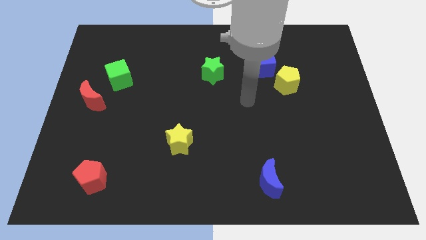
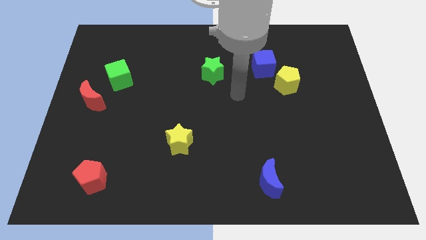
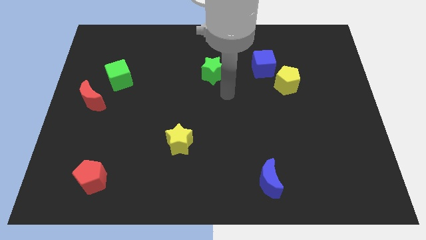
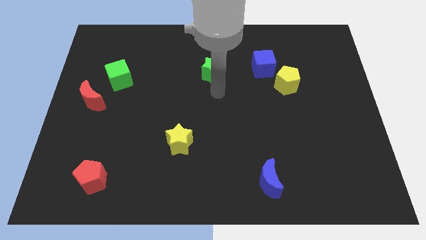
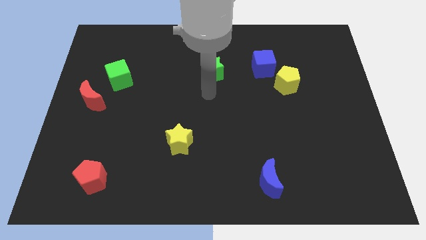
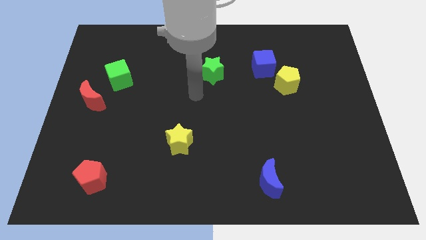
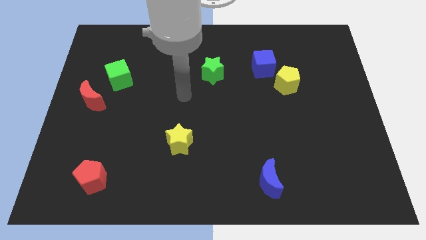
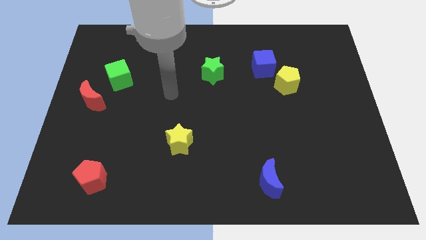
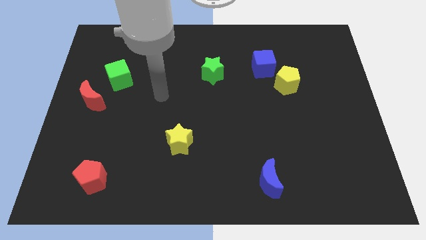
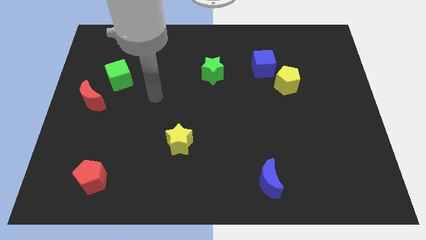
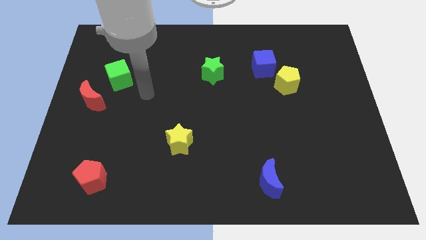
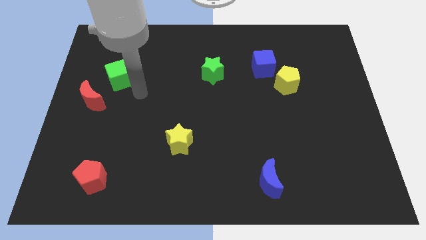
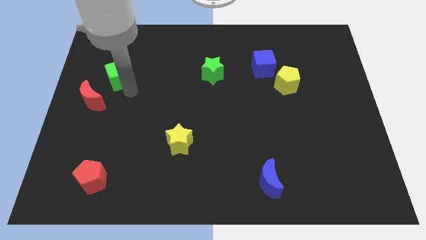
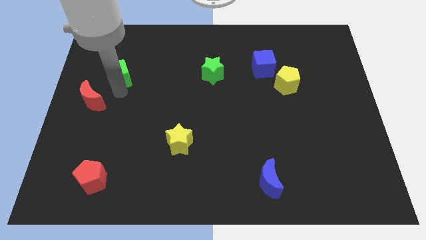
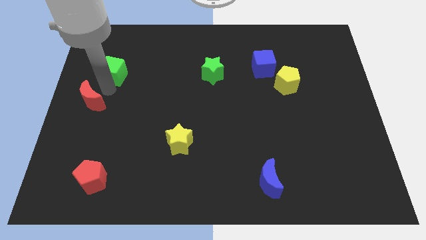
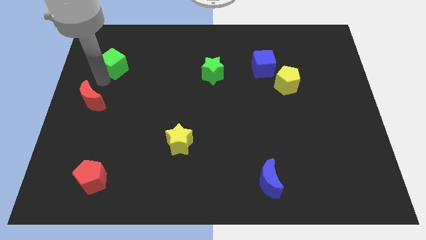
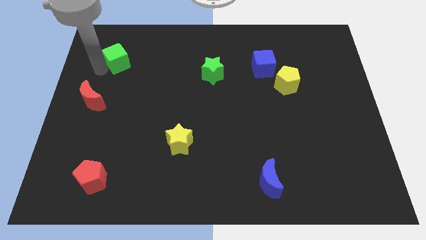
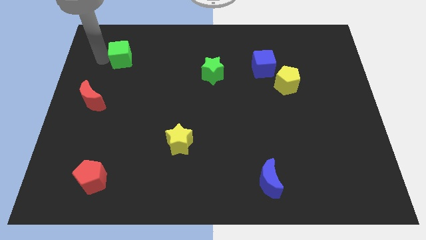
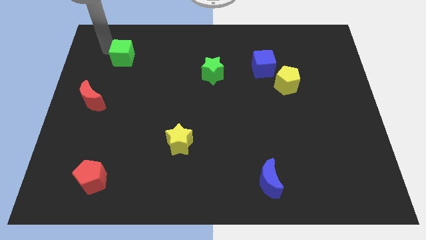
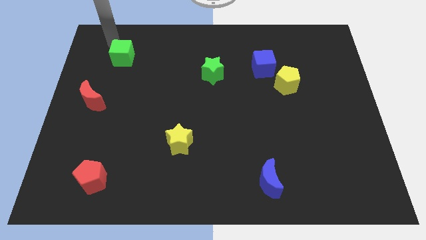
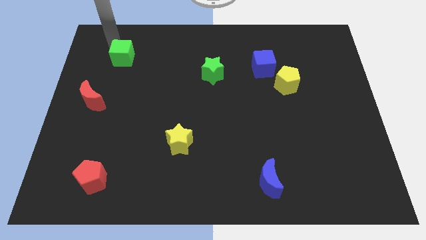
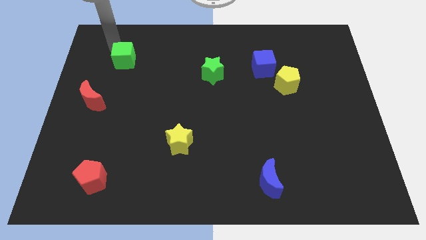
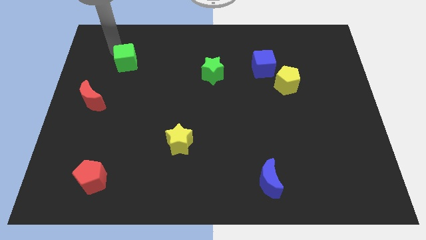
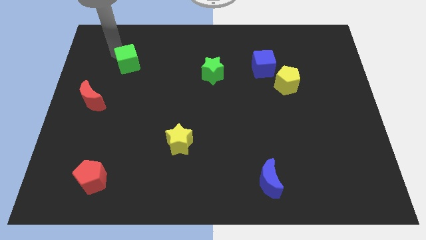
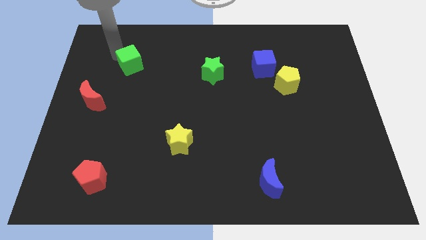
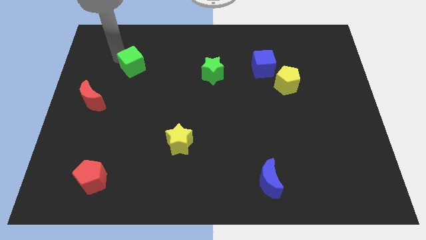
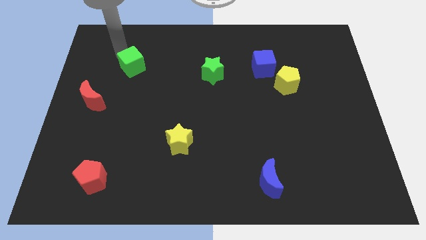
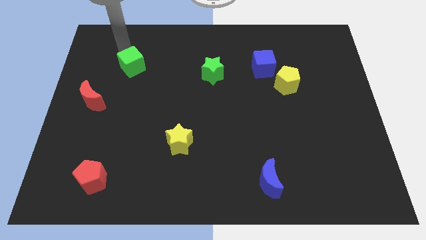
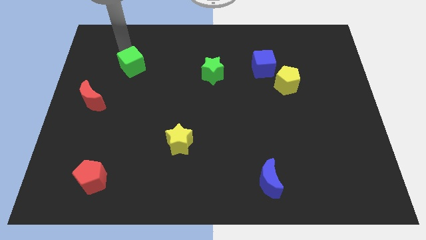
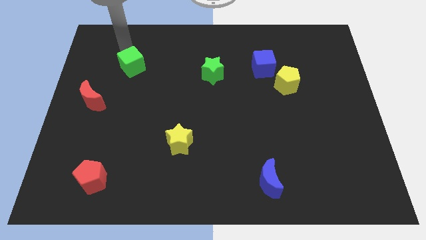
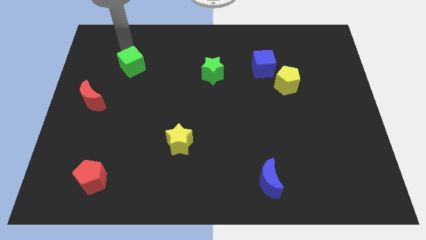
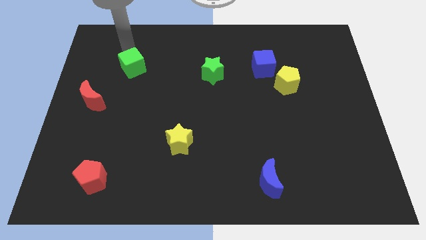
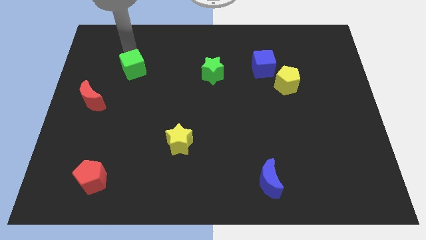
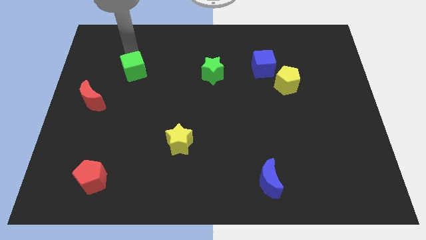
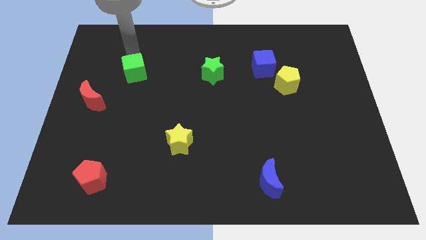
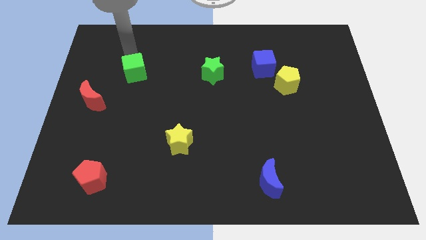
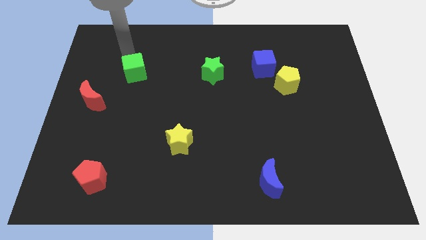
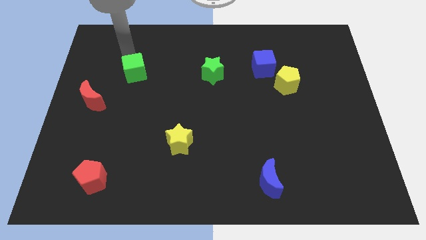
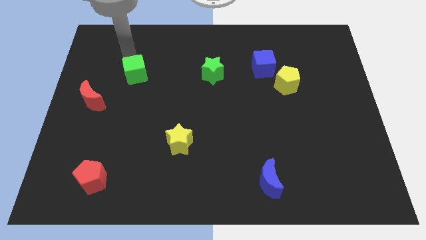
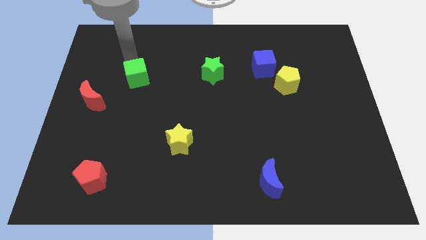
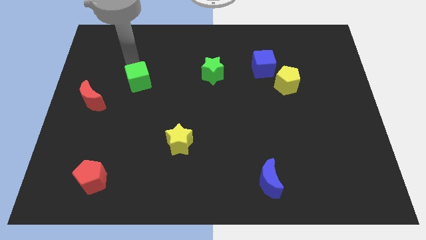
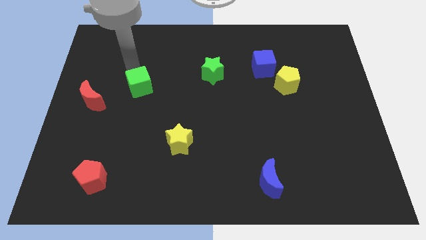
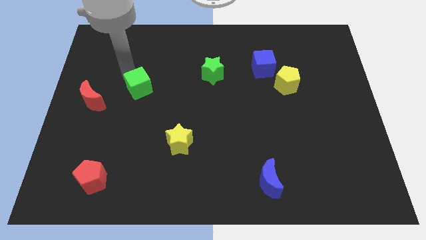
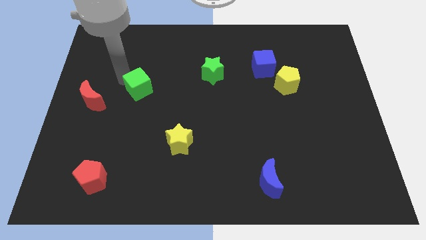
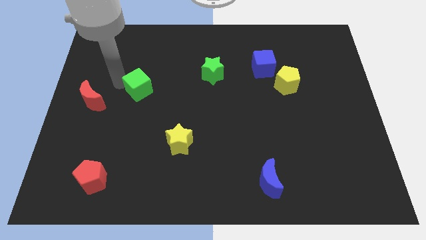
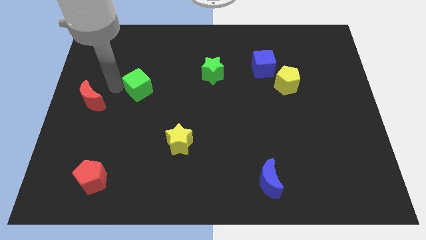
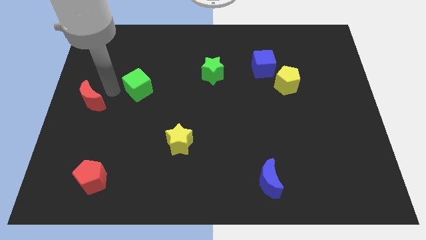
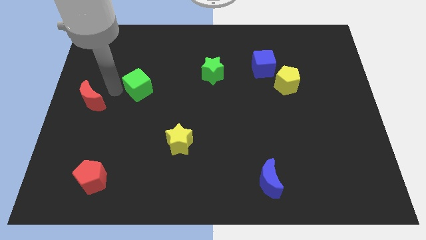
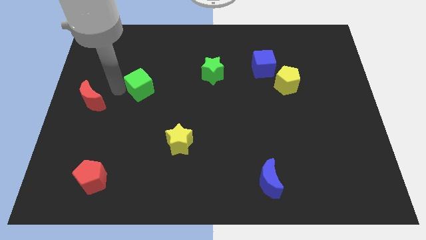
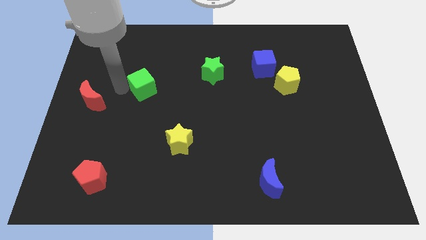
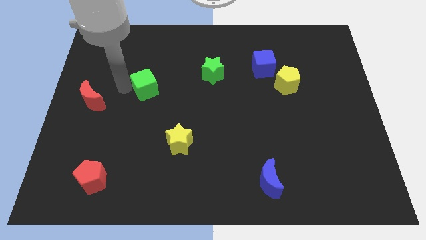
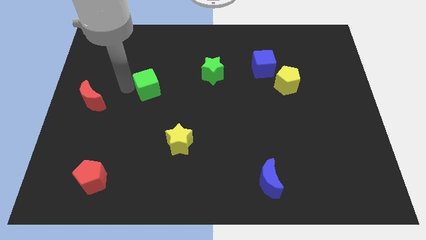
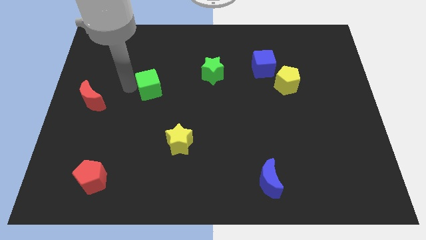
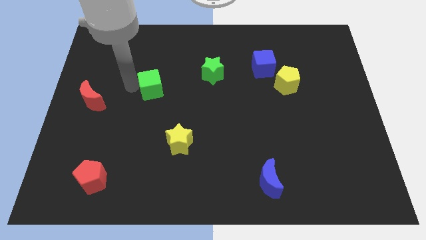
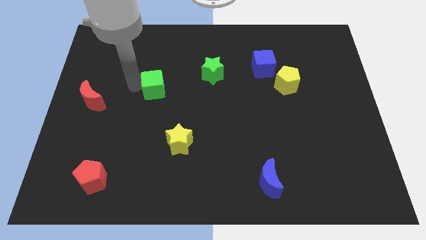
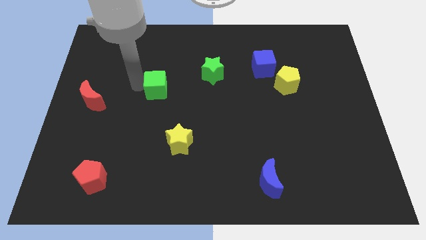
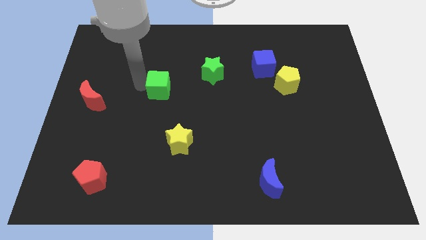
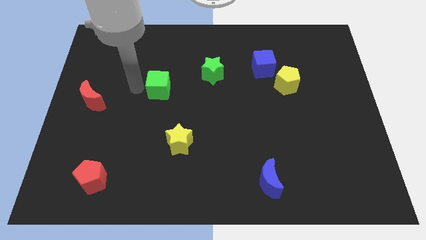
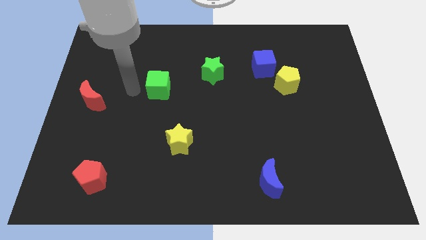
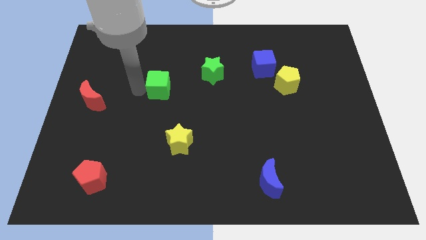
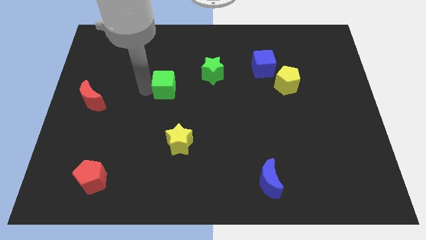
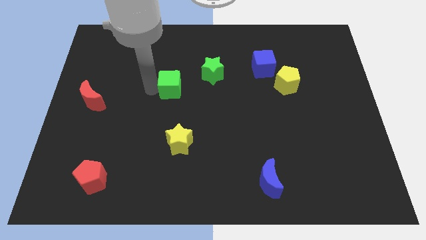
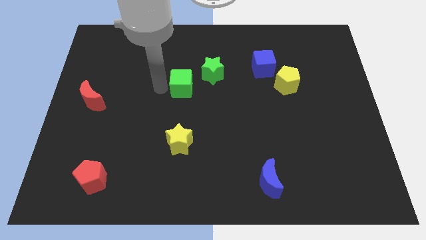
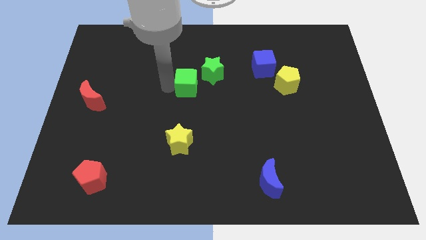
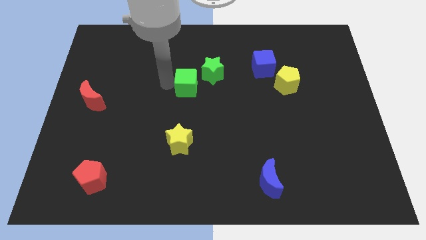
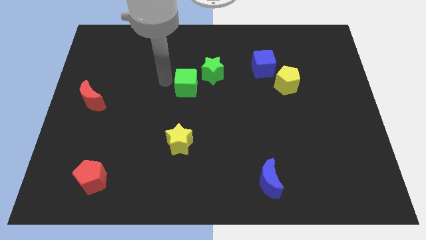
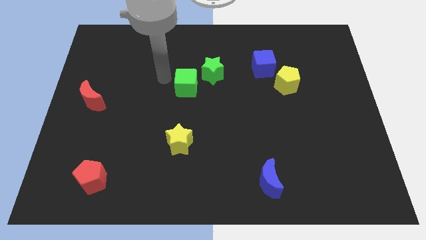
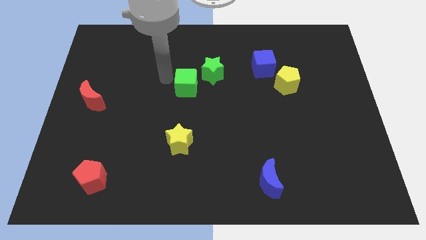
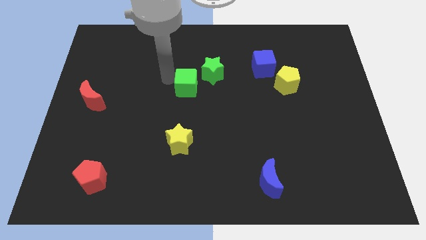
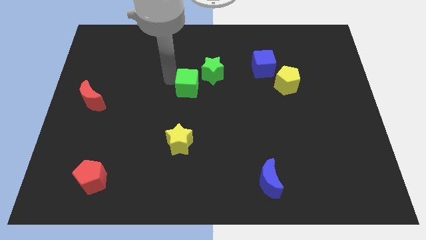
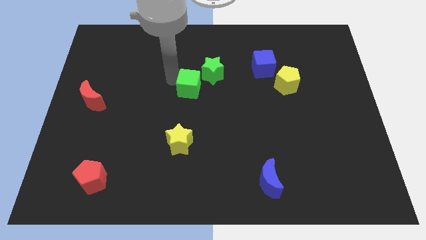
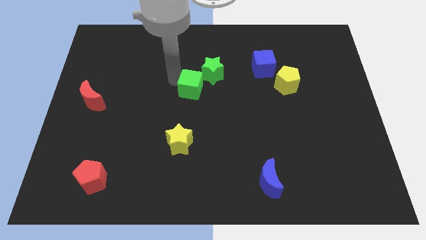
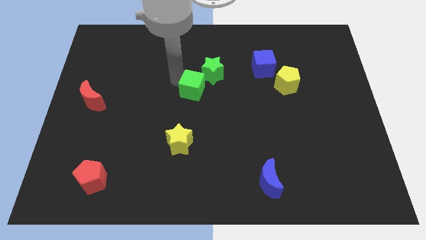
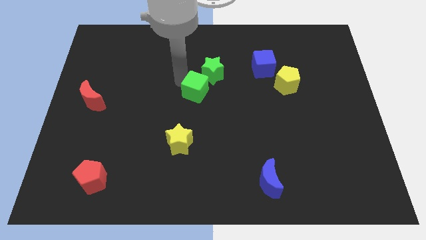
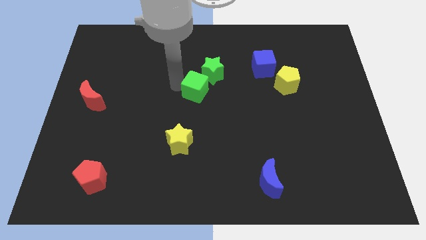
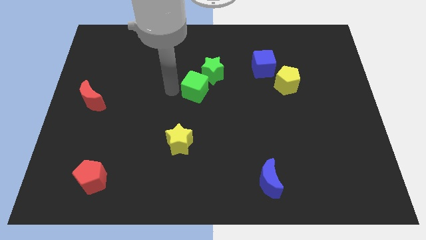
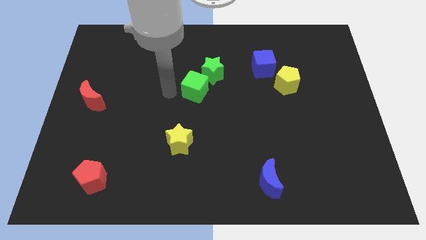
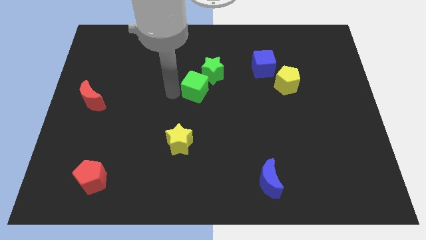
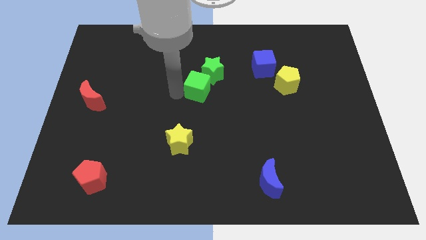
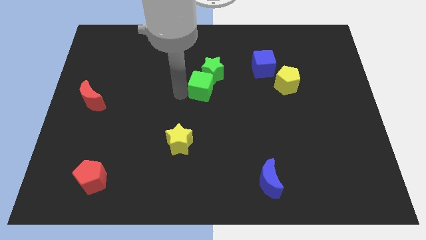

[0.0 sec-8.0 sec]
push the green cube to the right
